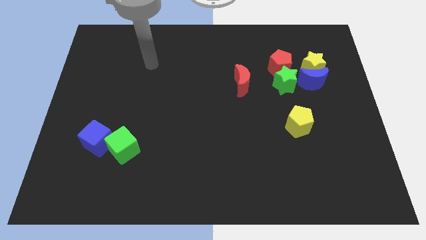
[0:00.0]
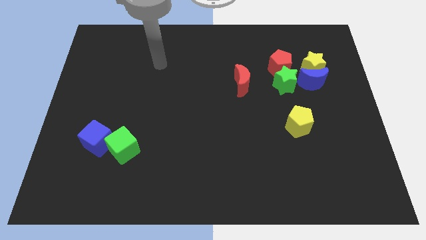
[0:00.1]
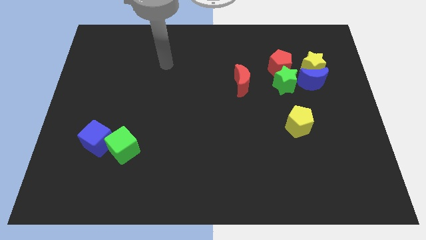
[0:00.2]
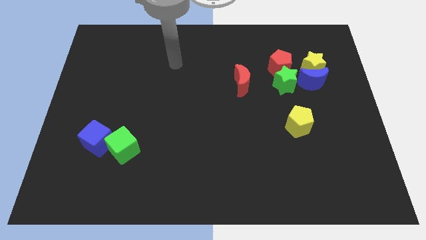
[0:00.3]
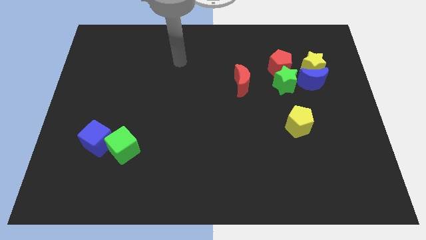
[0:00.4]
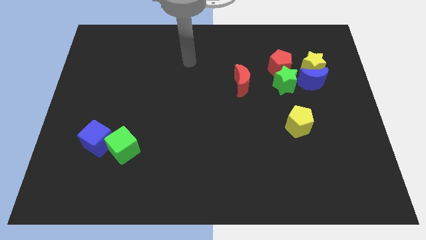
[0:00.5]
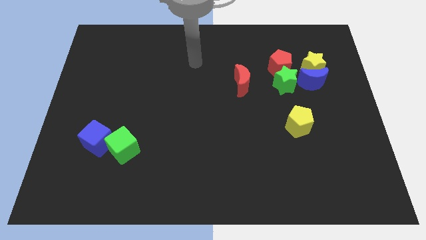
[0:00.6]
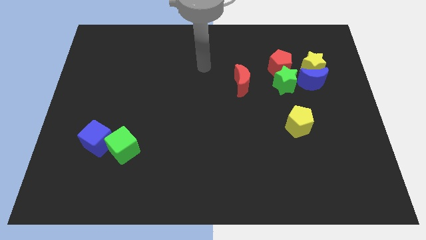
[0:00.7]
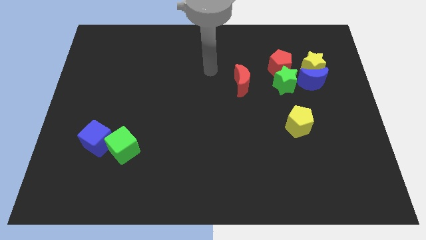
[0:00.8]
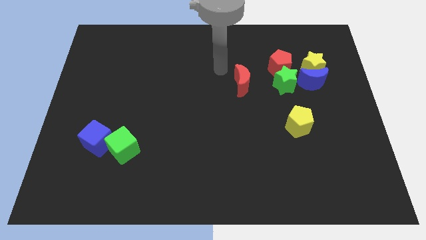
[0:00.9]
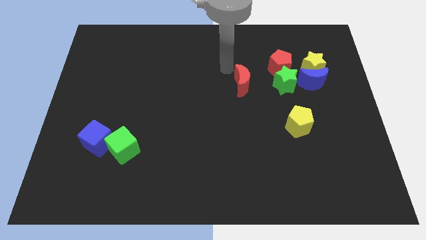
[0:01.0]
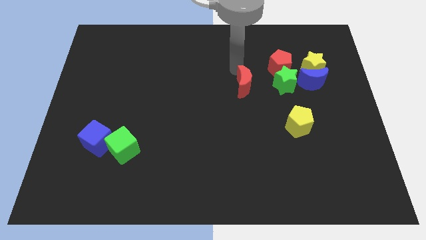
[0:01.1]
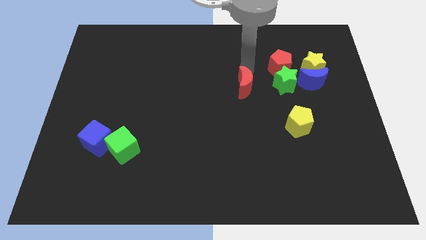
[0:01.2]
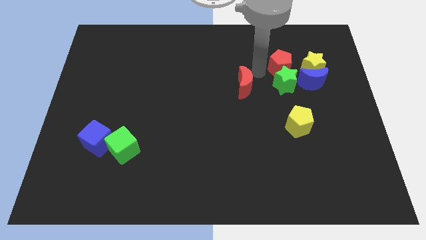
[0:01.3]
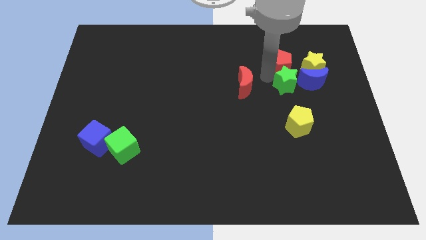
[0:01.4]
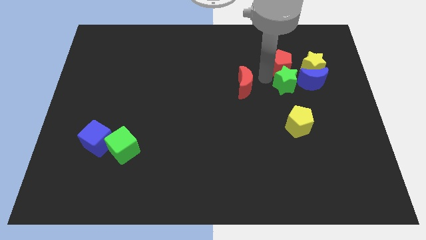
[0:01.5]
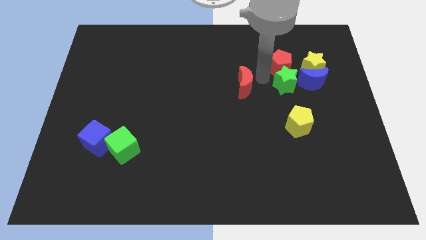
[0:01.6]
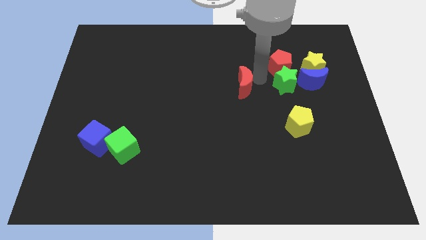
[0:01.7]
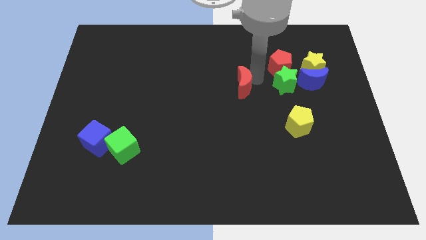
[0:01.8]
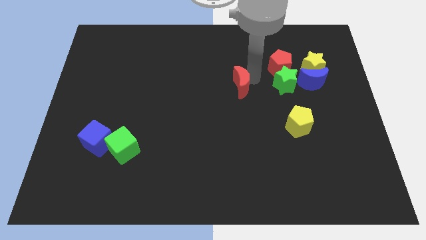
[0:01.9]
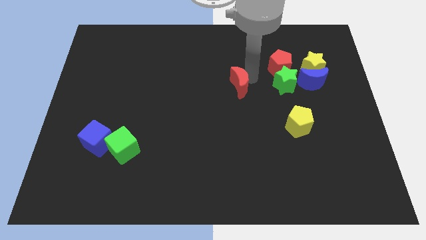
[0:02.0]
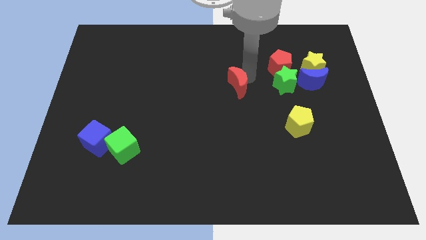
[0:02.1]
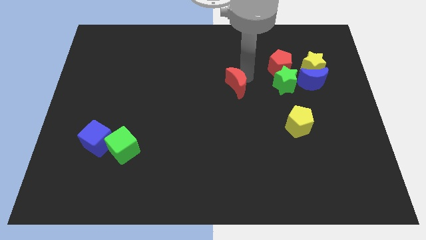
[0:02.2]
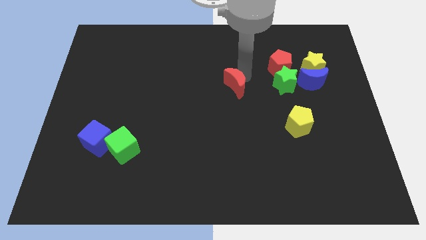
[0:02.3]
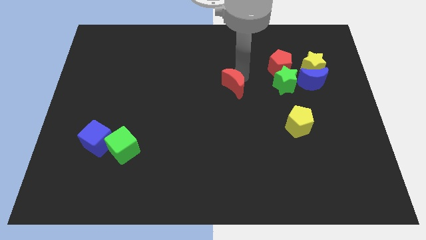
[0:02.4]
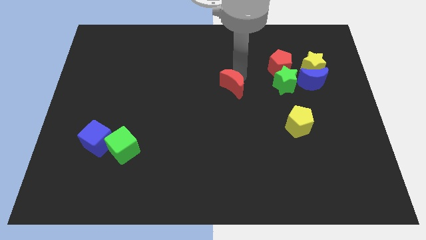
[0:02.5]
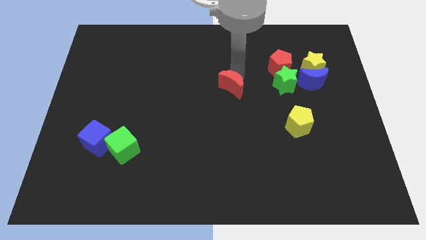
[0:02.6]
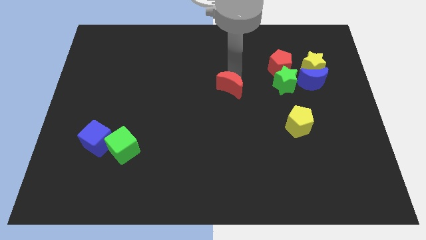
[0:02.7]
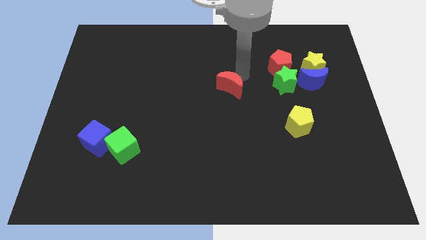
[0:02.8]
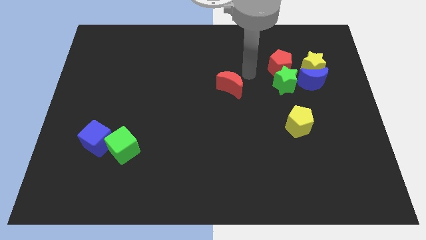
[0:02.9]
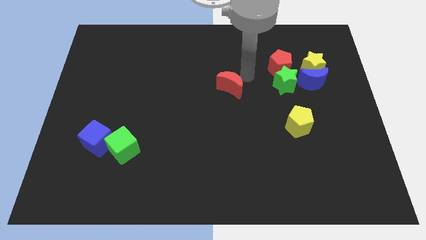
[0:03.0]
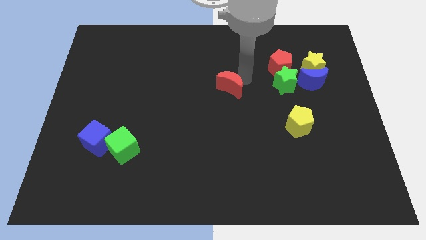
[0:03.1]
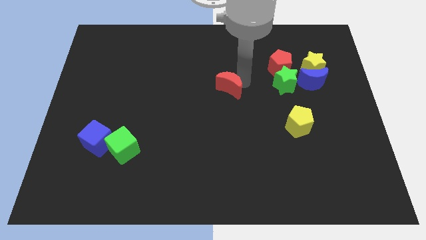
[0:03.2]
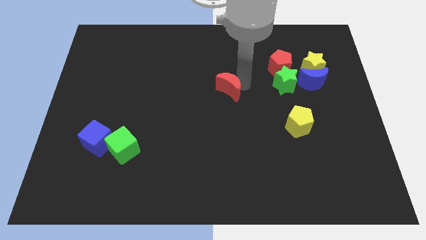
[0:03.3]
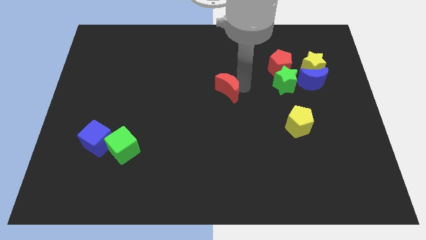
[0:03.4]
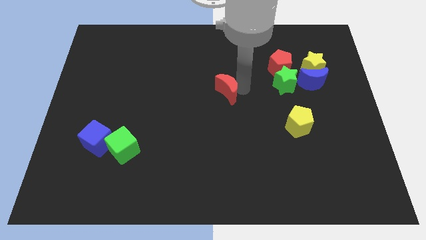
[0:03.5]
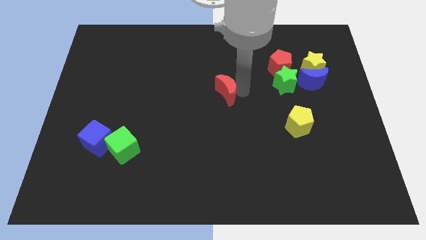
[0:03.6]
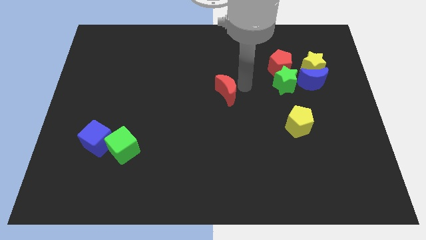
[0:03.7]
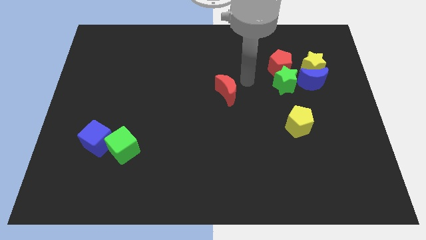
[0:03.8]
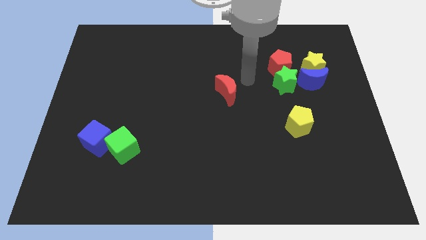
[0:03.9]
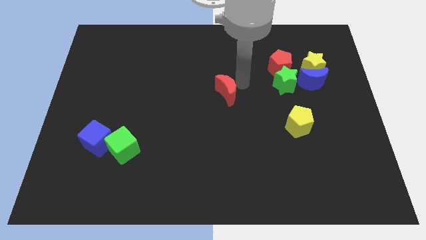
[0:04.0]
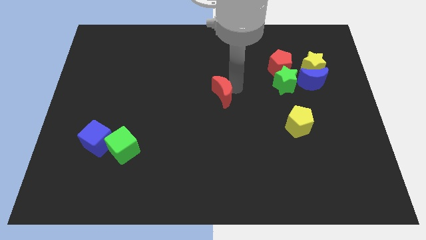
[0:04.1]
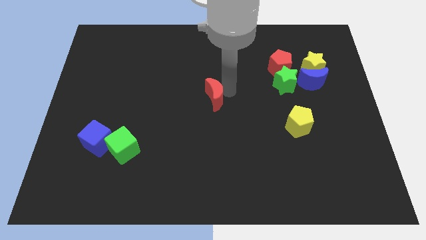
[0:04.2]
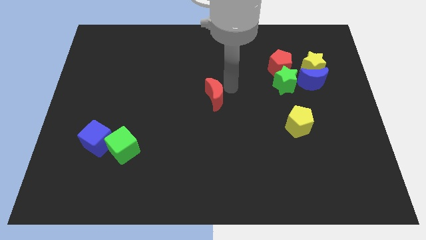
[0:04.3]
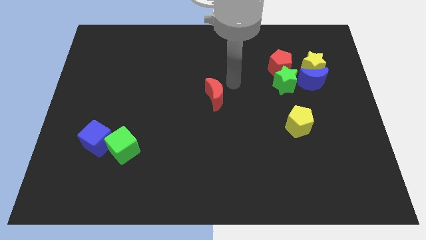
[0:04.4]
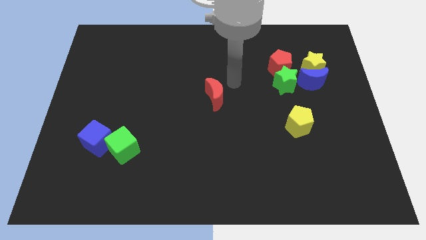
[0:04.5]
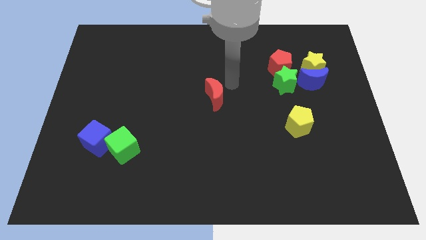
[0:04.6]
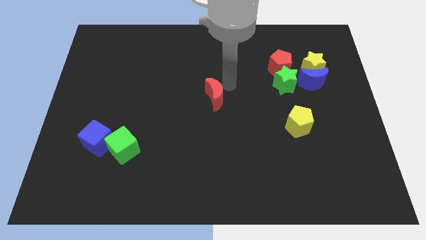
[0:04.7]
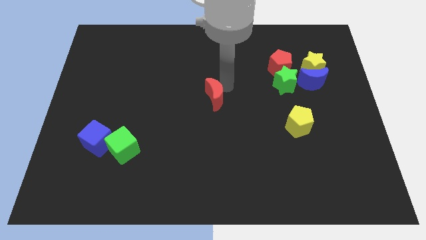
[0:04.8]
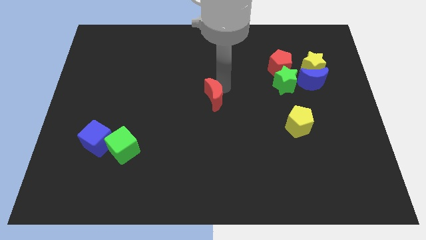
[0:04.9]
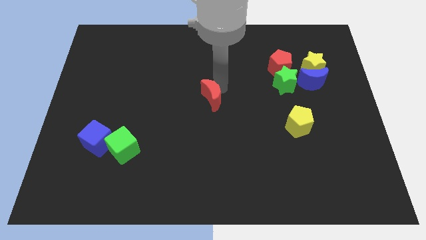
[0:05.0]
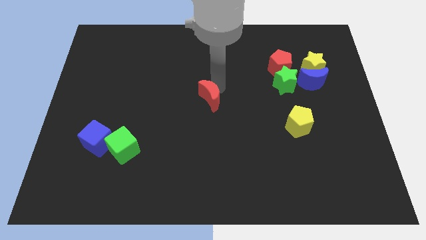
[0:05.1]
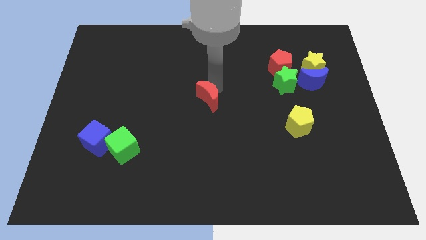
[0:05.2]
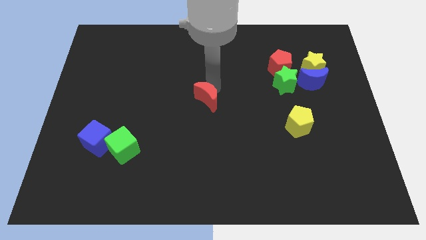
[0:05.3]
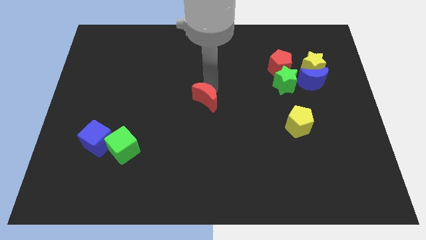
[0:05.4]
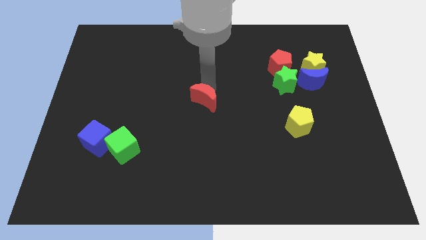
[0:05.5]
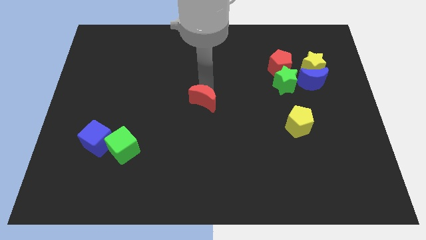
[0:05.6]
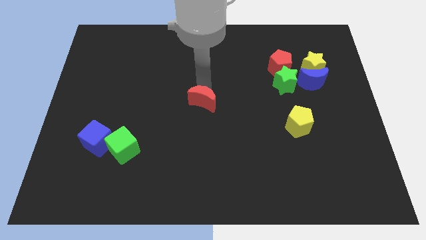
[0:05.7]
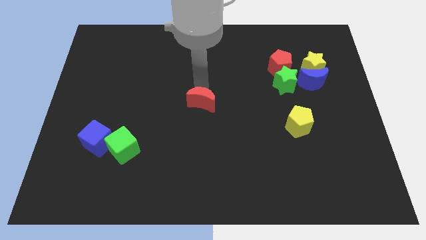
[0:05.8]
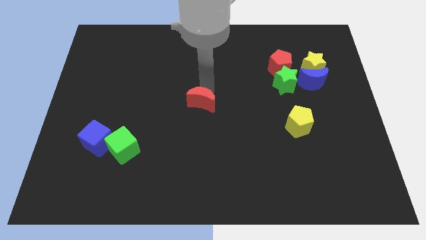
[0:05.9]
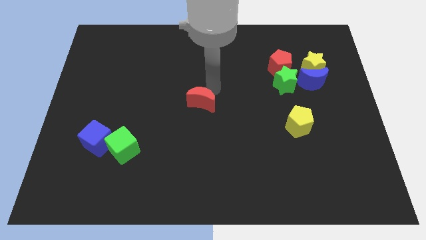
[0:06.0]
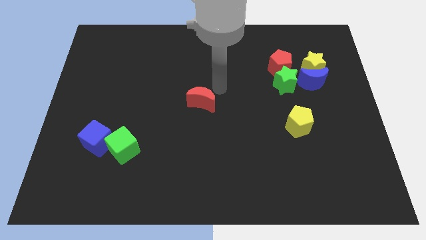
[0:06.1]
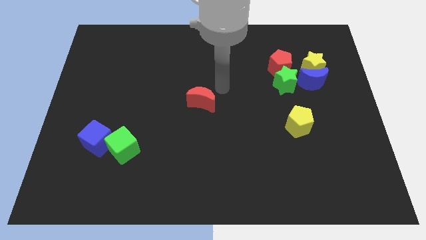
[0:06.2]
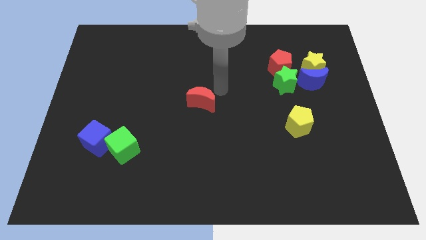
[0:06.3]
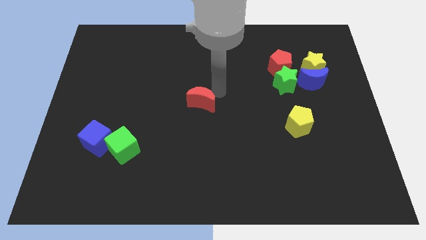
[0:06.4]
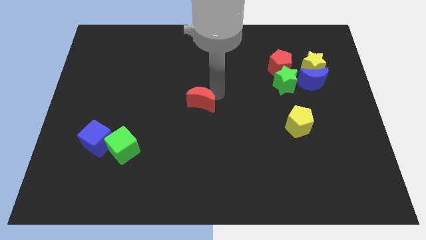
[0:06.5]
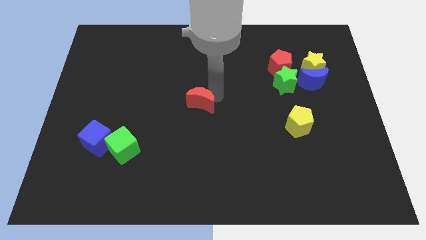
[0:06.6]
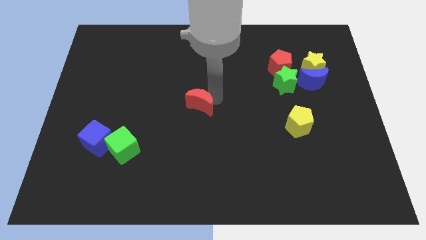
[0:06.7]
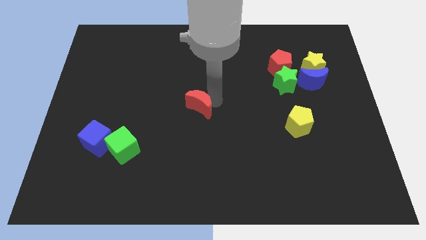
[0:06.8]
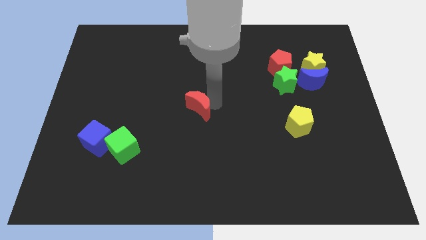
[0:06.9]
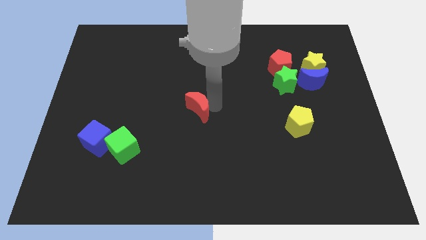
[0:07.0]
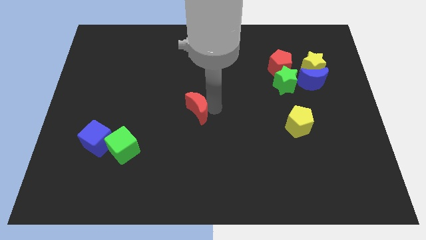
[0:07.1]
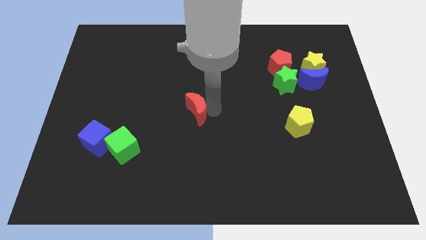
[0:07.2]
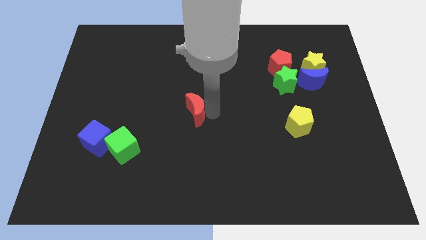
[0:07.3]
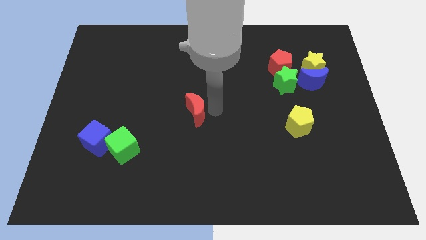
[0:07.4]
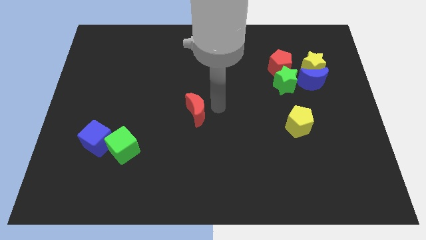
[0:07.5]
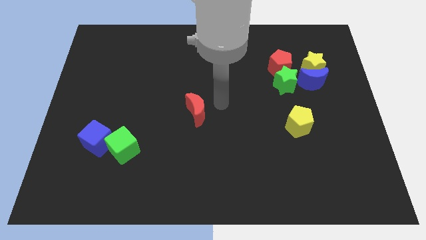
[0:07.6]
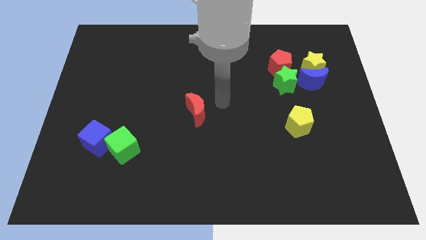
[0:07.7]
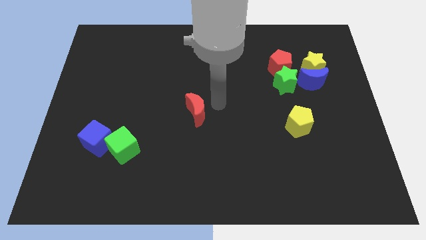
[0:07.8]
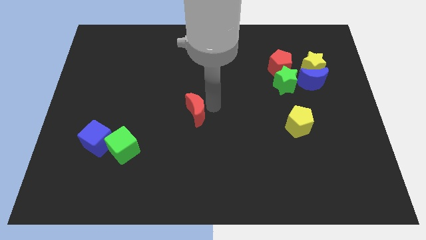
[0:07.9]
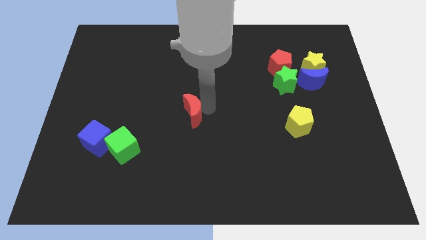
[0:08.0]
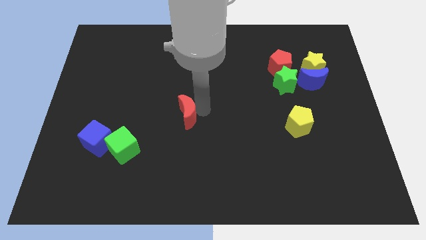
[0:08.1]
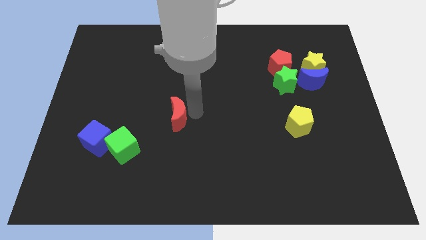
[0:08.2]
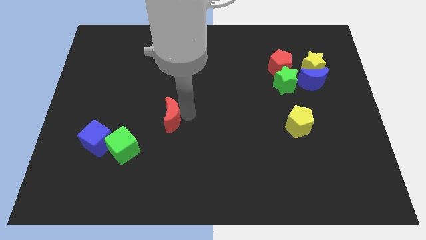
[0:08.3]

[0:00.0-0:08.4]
move the red moon to the top right side of the green cube
